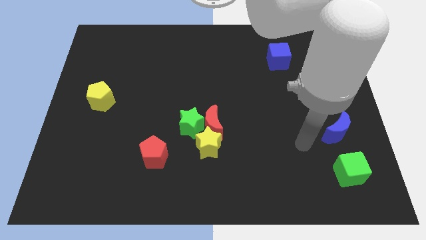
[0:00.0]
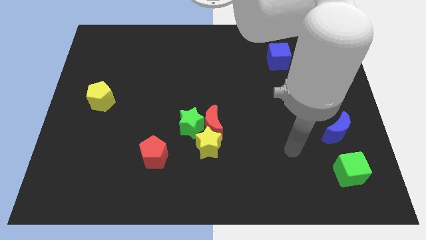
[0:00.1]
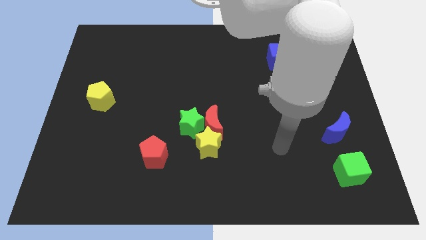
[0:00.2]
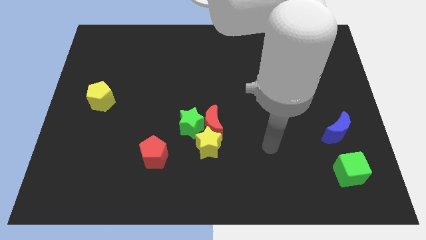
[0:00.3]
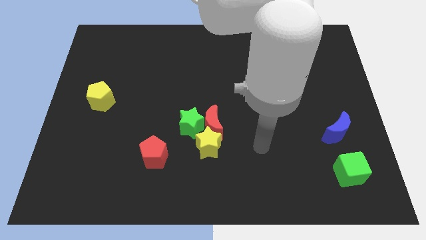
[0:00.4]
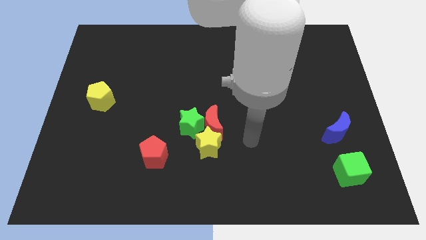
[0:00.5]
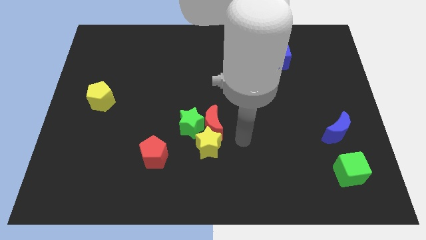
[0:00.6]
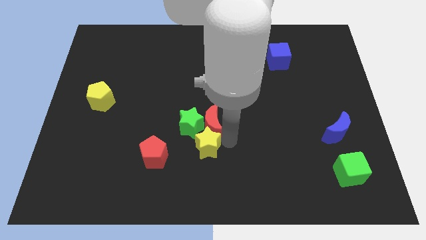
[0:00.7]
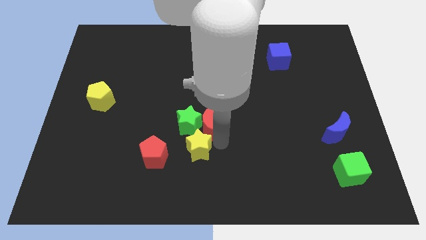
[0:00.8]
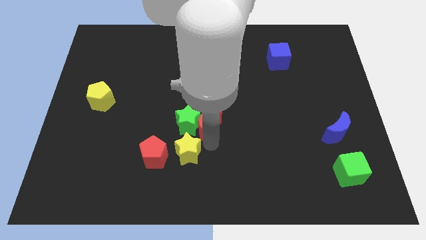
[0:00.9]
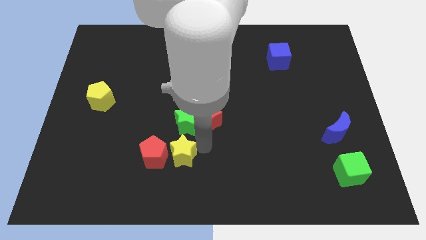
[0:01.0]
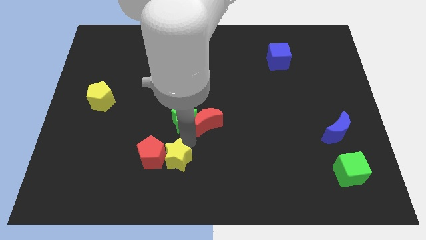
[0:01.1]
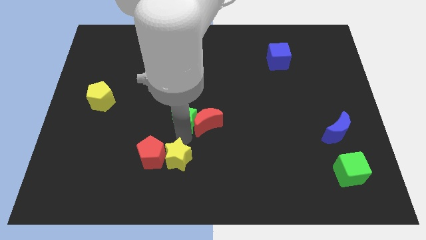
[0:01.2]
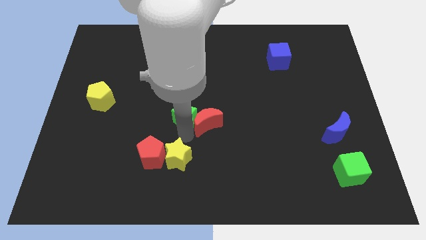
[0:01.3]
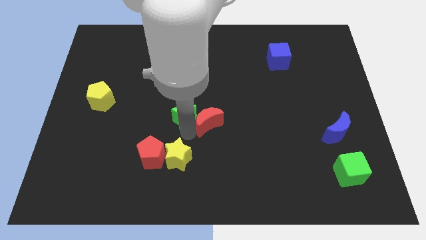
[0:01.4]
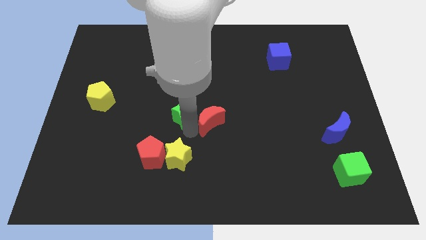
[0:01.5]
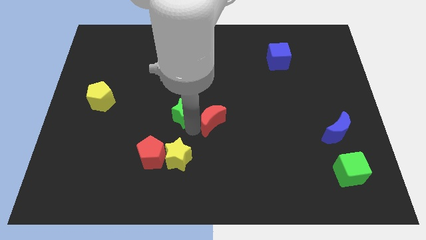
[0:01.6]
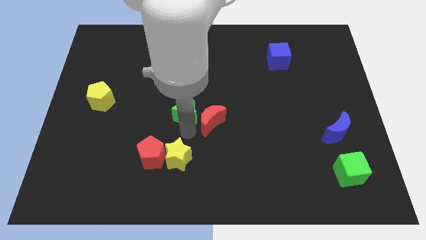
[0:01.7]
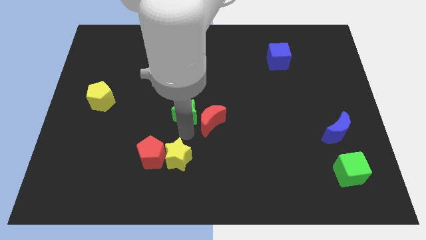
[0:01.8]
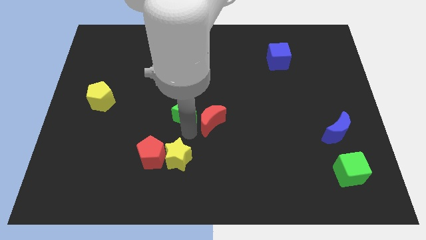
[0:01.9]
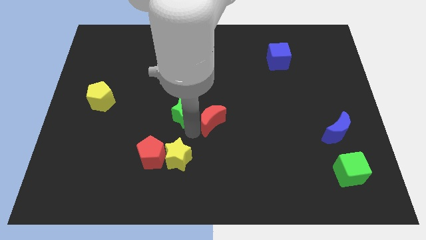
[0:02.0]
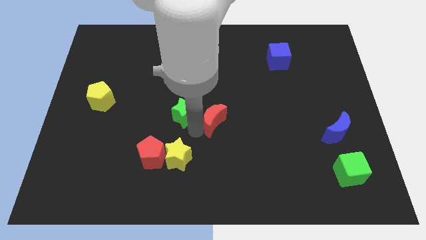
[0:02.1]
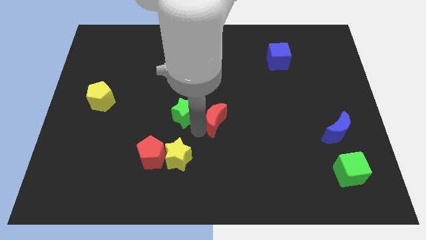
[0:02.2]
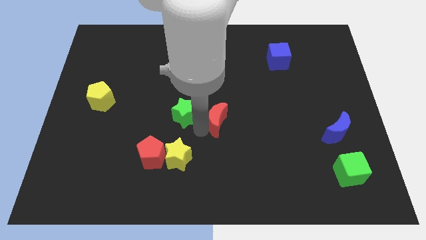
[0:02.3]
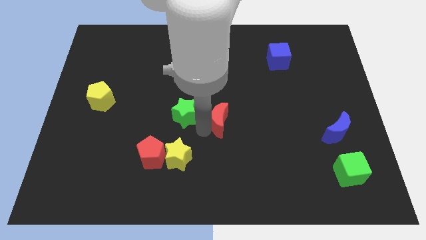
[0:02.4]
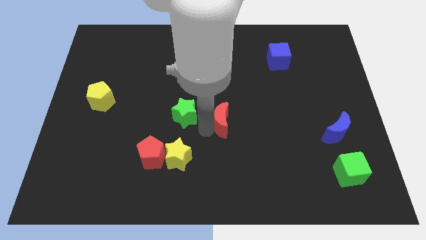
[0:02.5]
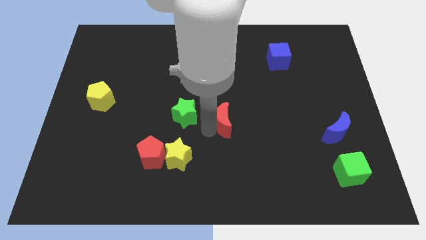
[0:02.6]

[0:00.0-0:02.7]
move the red moon away from the green star and yellow star

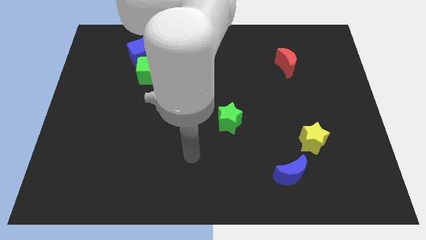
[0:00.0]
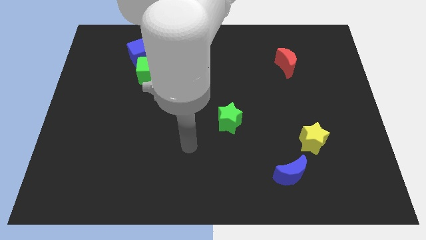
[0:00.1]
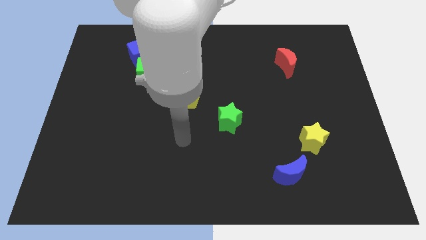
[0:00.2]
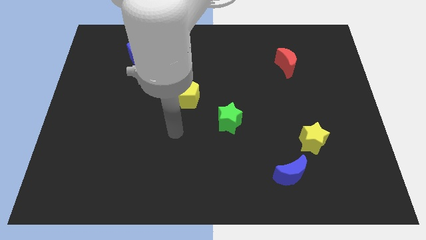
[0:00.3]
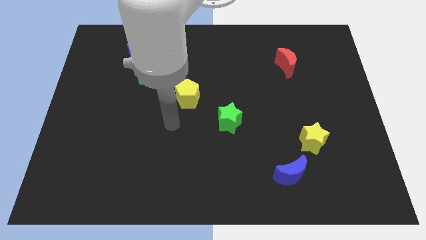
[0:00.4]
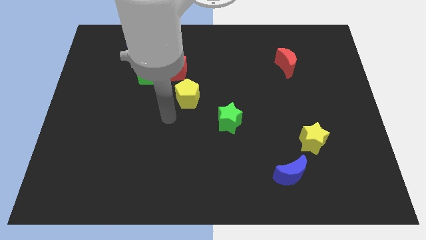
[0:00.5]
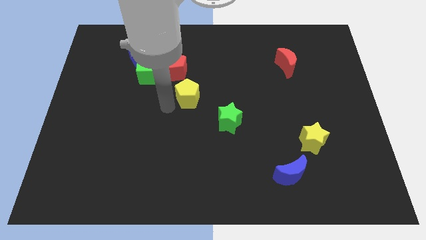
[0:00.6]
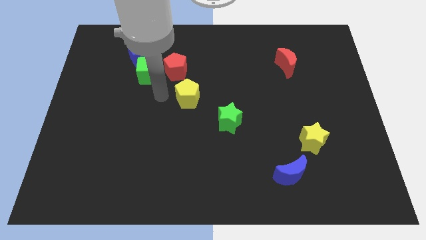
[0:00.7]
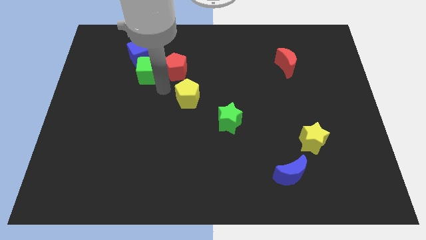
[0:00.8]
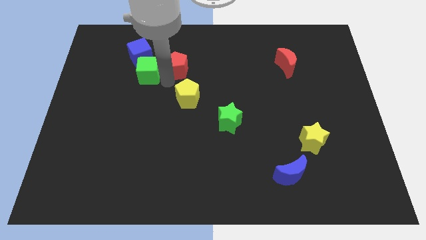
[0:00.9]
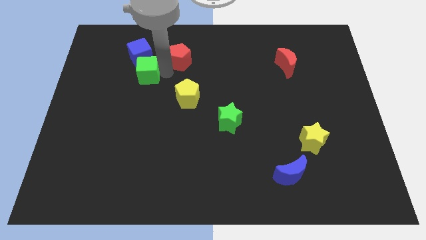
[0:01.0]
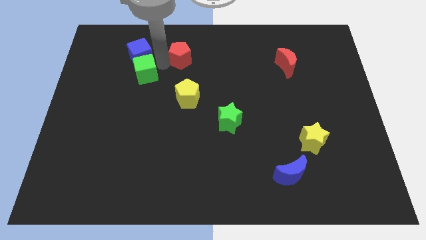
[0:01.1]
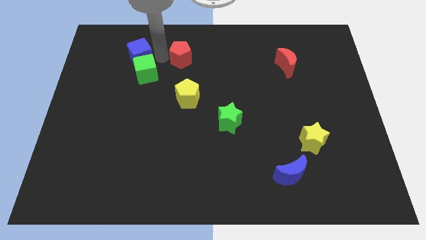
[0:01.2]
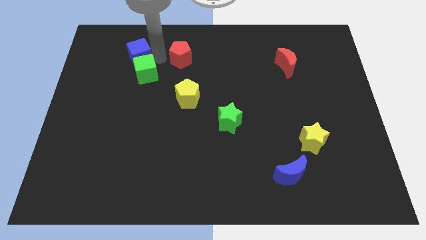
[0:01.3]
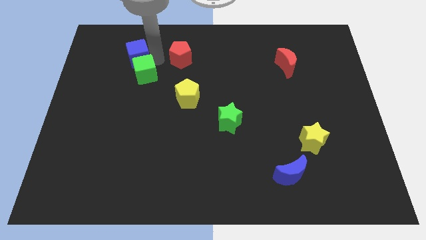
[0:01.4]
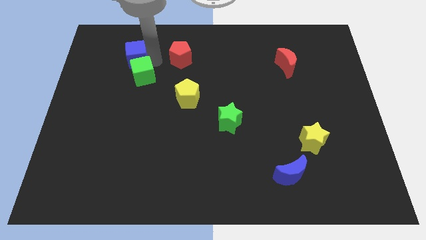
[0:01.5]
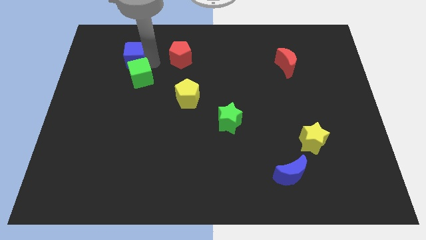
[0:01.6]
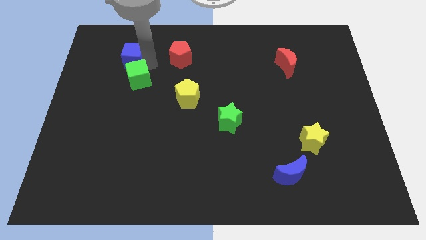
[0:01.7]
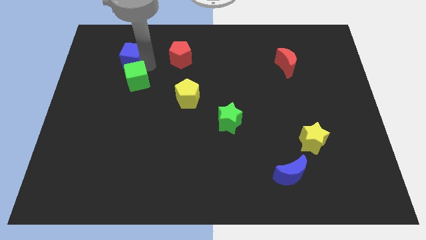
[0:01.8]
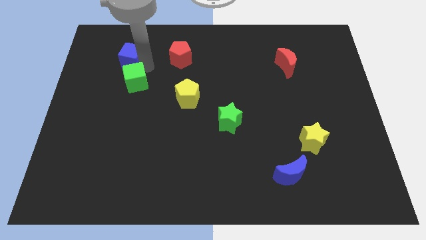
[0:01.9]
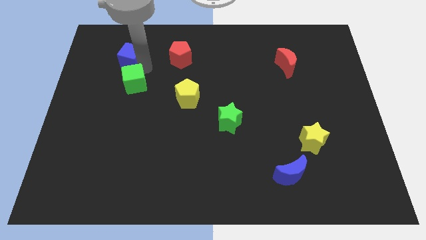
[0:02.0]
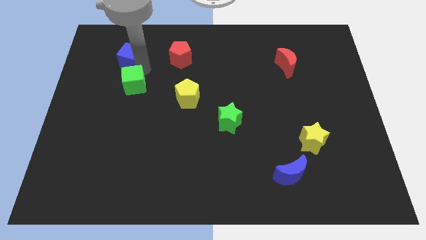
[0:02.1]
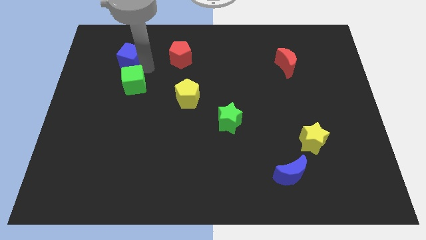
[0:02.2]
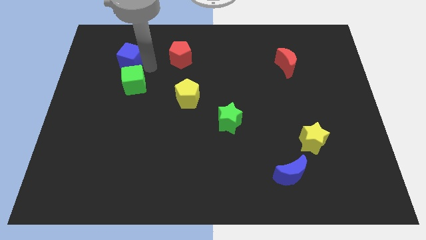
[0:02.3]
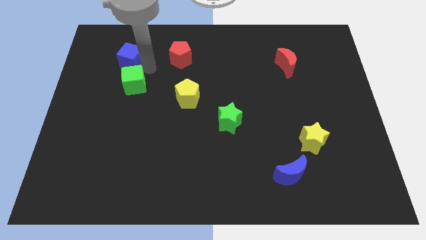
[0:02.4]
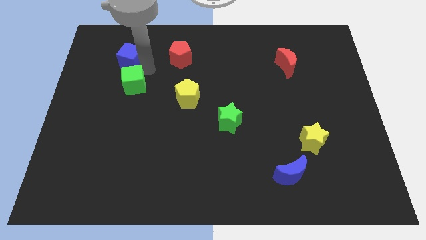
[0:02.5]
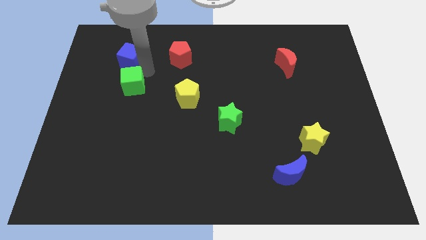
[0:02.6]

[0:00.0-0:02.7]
separate the green cube from the red pentagon and blue cube

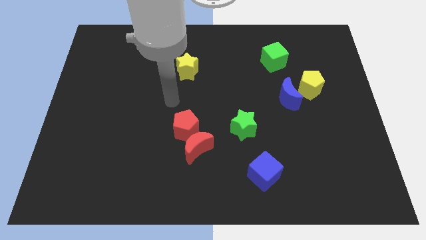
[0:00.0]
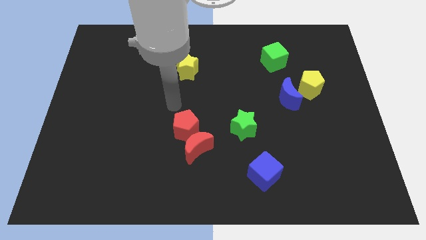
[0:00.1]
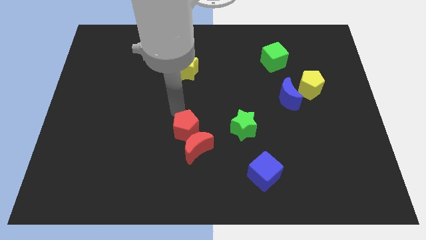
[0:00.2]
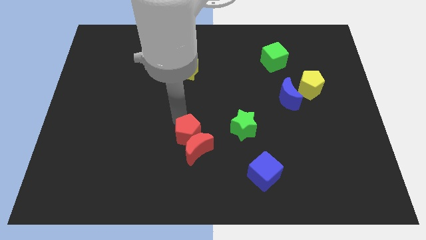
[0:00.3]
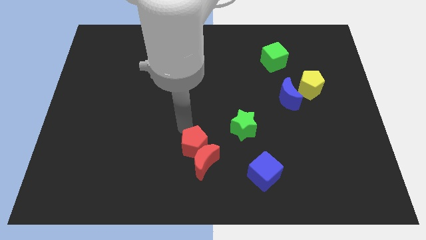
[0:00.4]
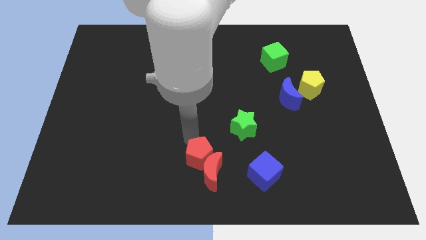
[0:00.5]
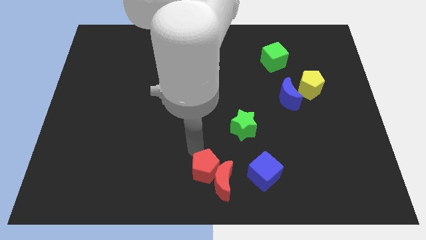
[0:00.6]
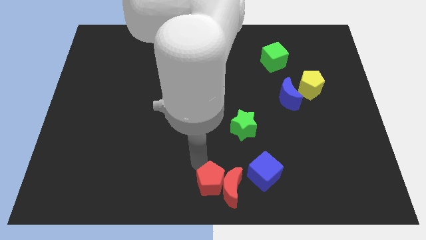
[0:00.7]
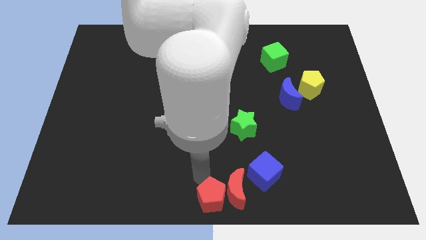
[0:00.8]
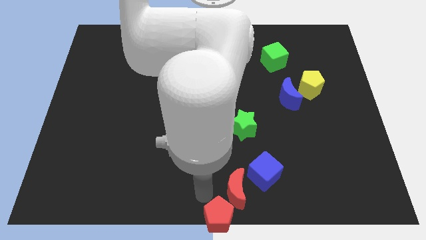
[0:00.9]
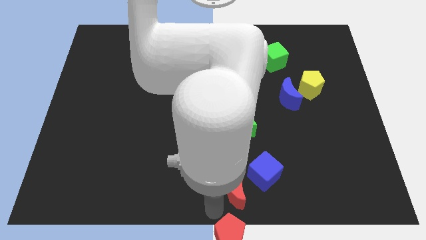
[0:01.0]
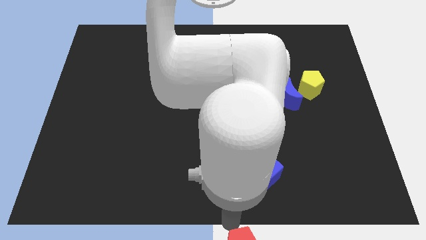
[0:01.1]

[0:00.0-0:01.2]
separate the red moon from the red pentagon

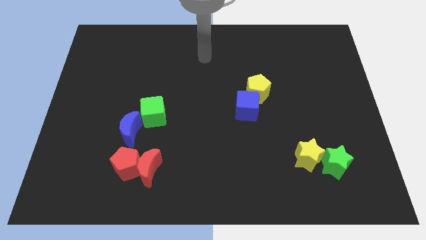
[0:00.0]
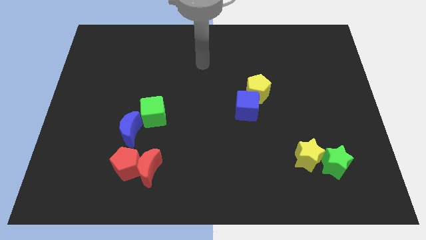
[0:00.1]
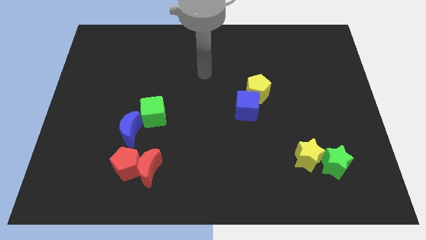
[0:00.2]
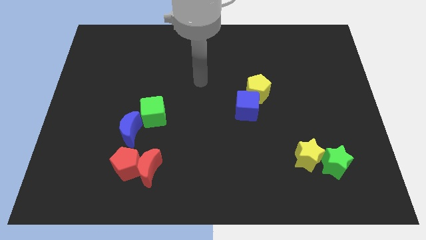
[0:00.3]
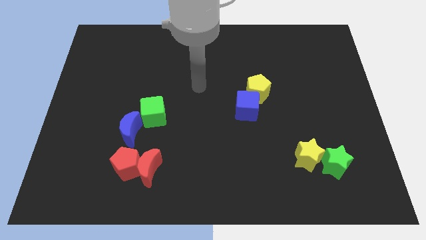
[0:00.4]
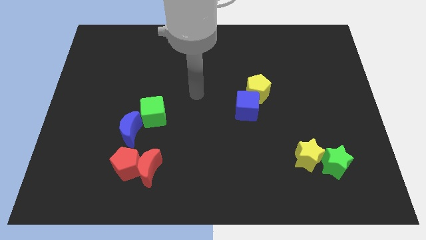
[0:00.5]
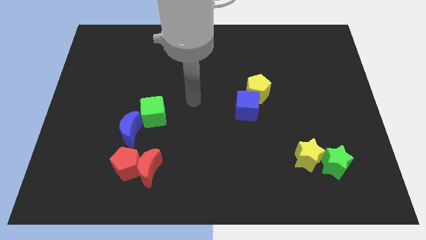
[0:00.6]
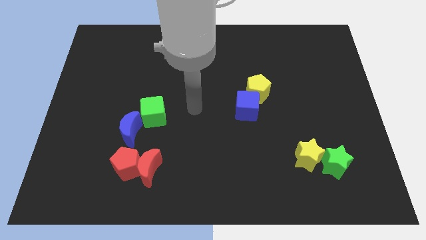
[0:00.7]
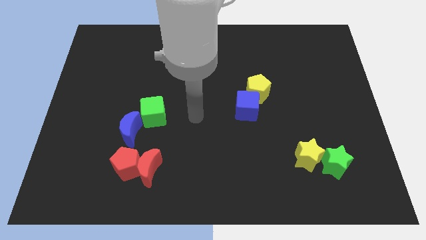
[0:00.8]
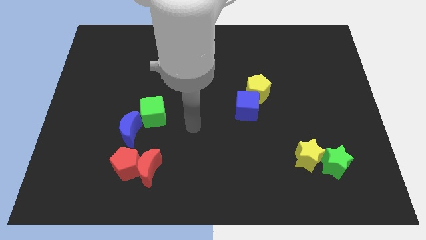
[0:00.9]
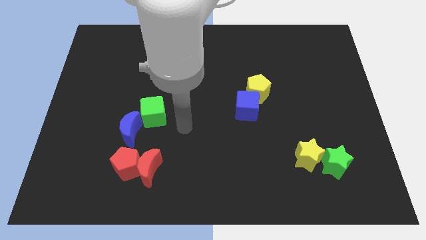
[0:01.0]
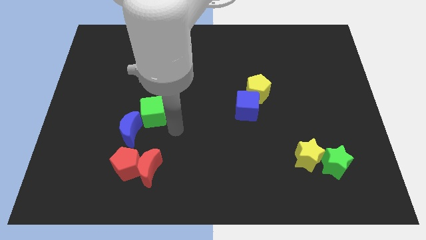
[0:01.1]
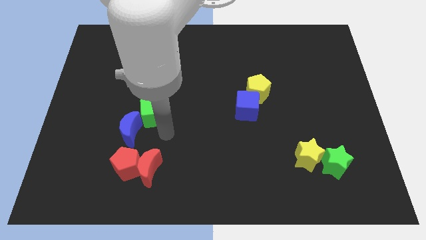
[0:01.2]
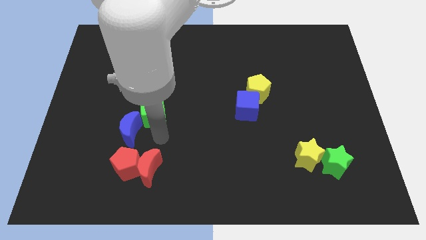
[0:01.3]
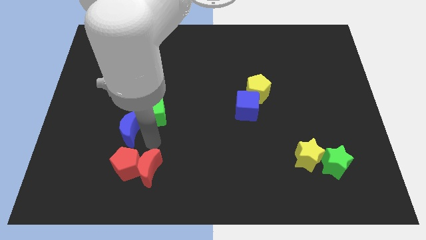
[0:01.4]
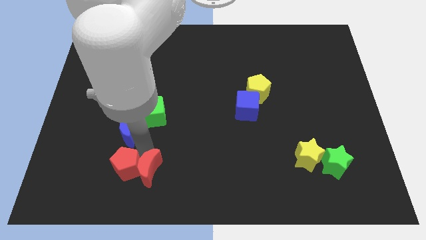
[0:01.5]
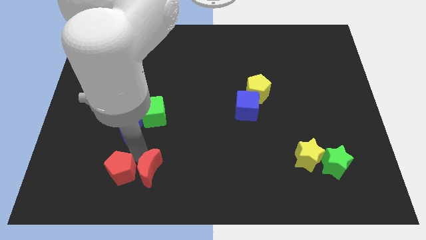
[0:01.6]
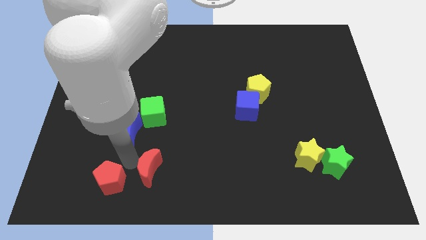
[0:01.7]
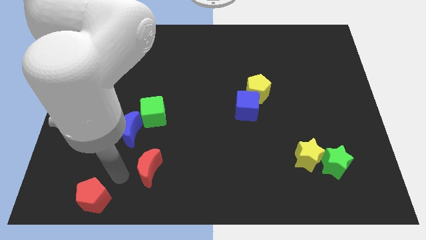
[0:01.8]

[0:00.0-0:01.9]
pull the red moon apart from the red pentagon

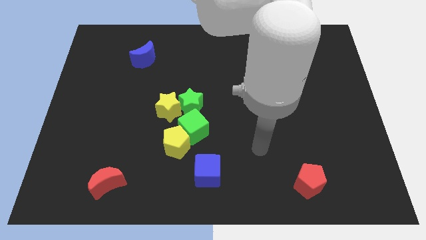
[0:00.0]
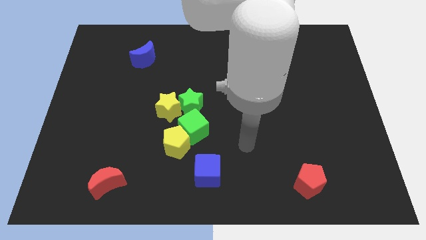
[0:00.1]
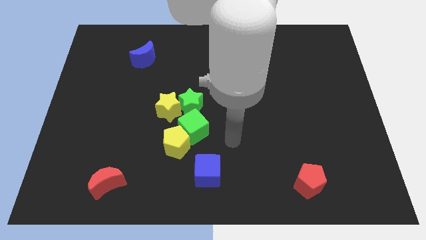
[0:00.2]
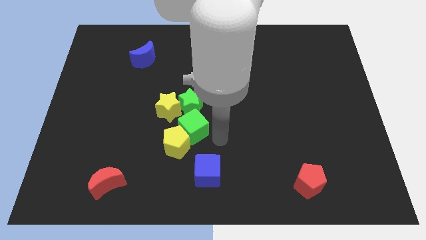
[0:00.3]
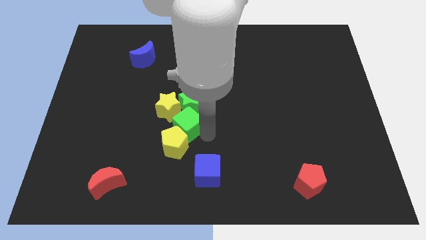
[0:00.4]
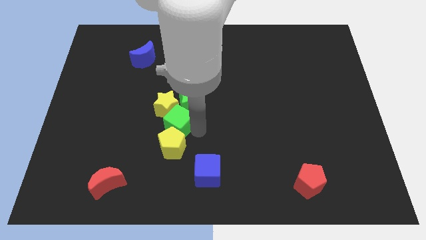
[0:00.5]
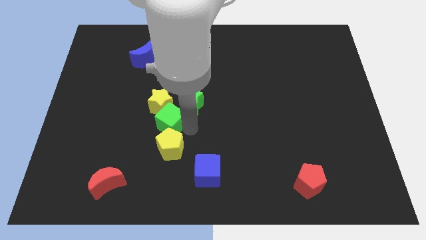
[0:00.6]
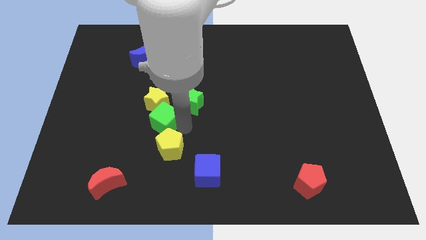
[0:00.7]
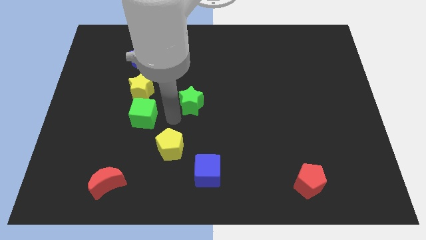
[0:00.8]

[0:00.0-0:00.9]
separate the green star from the yellow star and green cube
